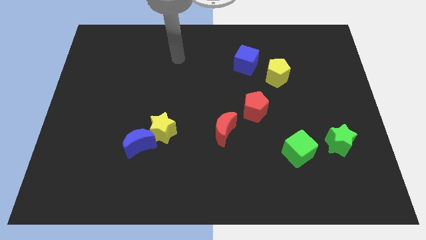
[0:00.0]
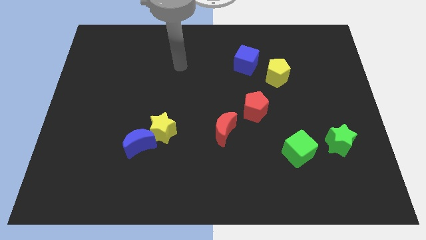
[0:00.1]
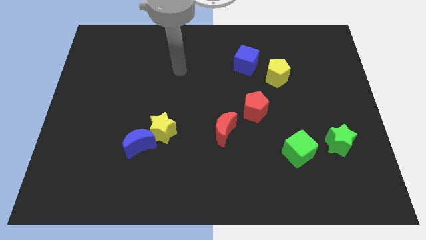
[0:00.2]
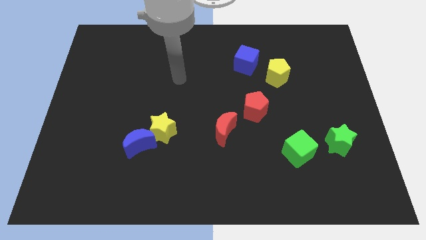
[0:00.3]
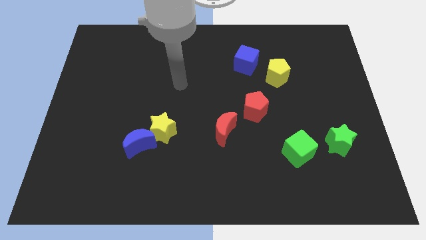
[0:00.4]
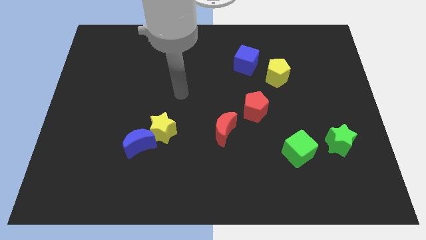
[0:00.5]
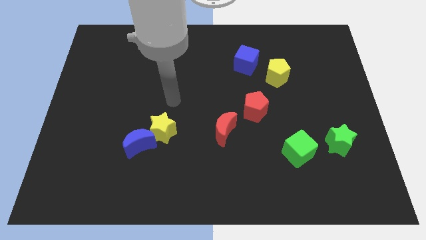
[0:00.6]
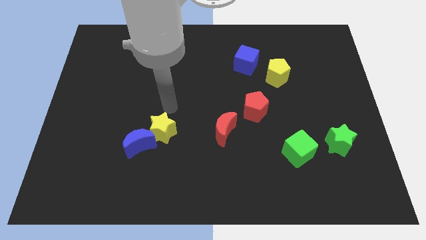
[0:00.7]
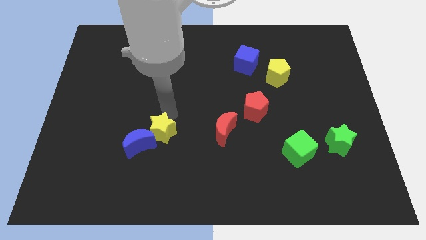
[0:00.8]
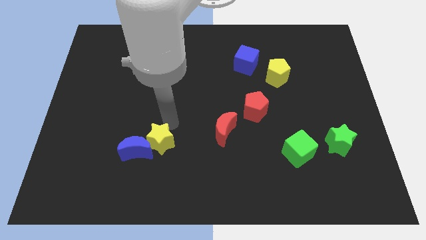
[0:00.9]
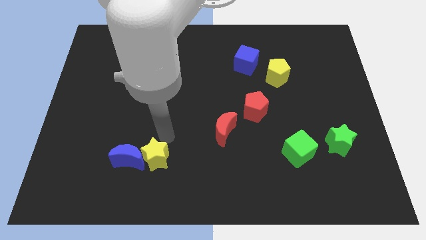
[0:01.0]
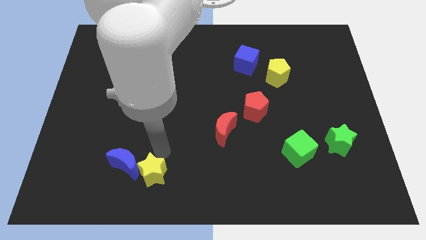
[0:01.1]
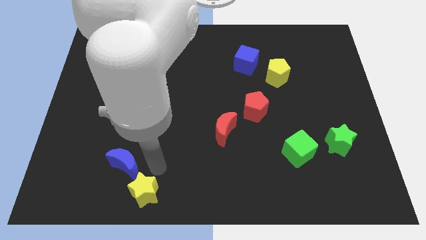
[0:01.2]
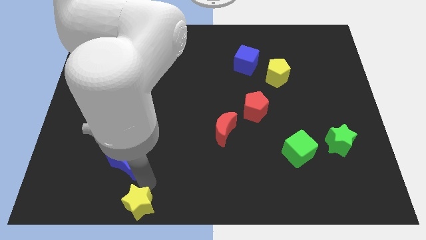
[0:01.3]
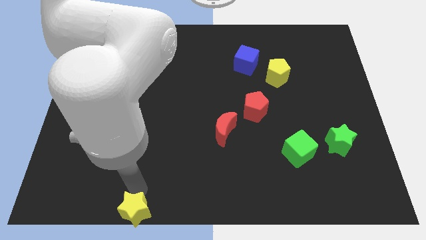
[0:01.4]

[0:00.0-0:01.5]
pull the blue moon apart from the yellow star

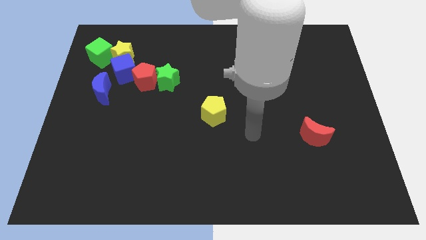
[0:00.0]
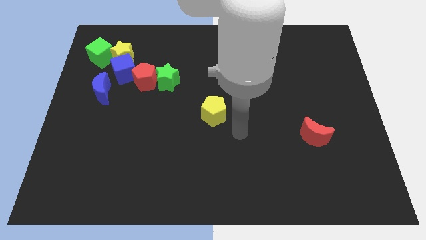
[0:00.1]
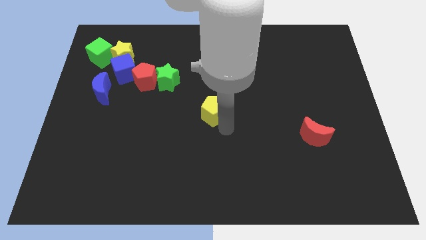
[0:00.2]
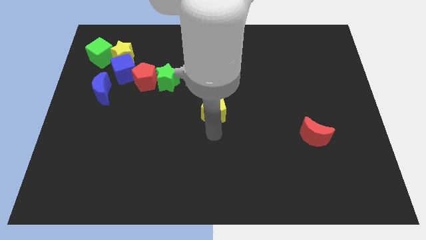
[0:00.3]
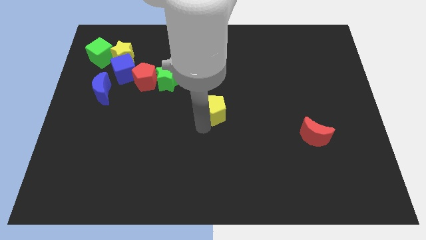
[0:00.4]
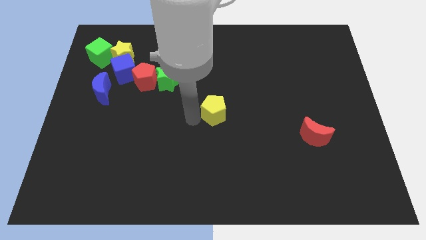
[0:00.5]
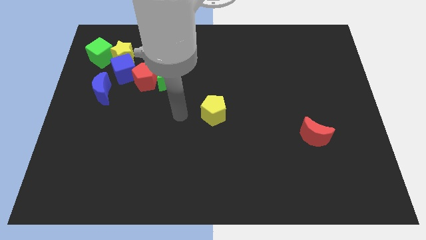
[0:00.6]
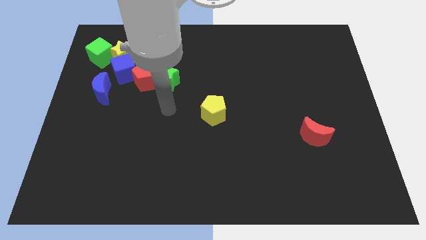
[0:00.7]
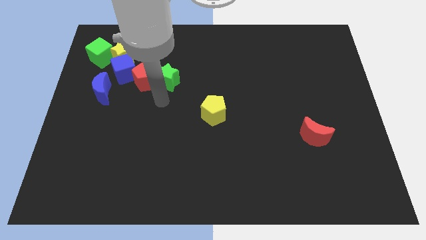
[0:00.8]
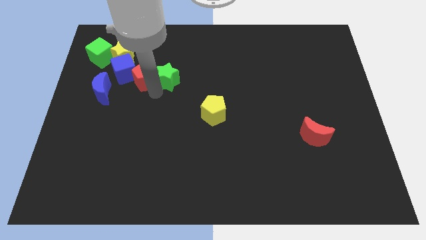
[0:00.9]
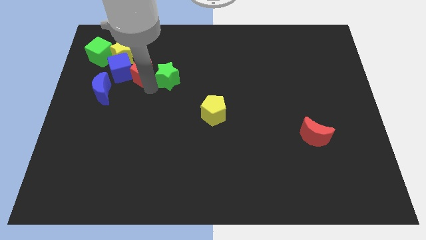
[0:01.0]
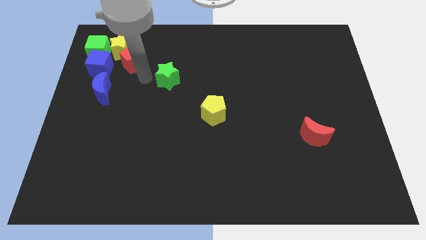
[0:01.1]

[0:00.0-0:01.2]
pull the green star apart from the red pentagon

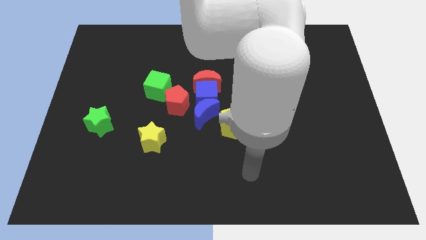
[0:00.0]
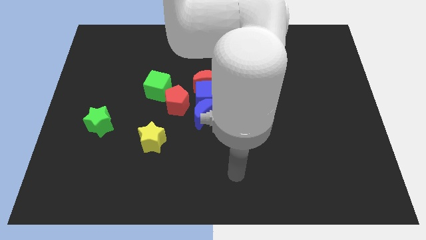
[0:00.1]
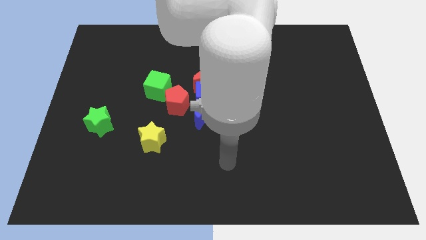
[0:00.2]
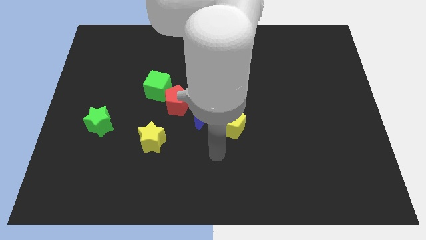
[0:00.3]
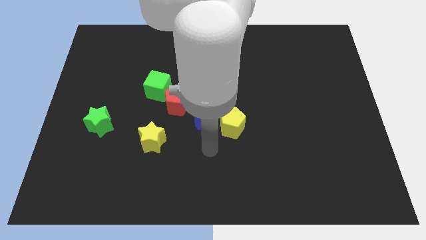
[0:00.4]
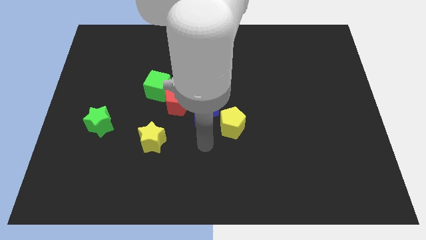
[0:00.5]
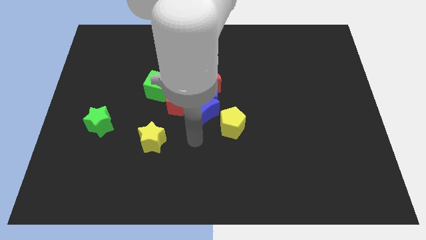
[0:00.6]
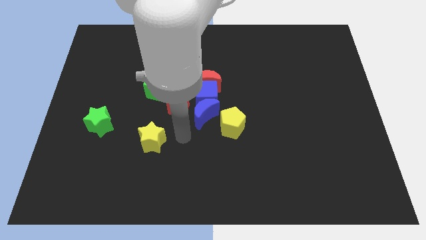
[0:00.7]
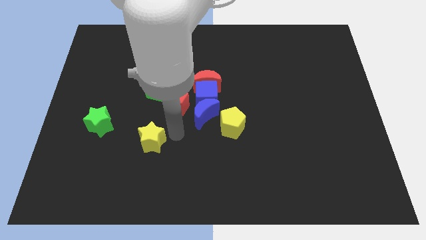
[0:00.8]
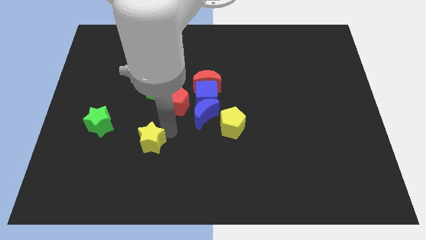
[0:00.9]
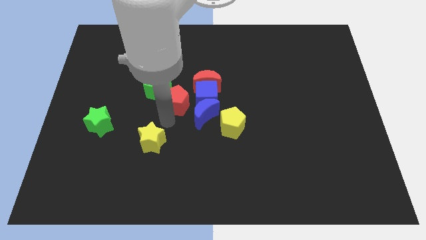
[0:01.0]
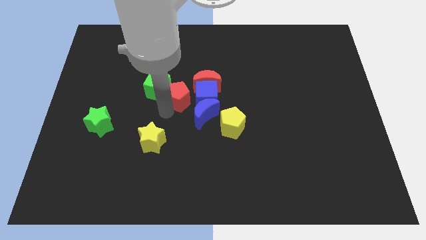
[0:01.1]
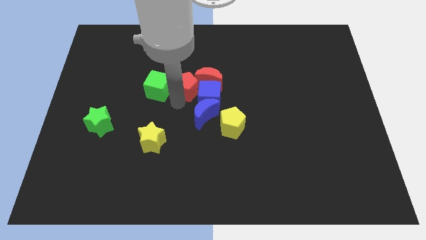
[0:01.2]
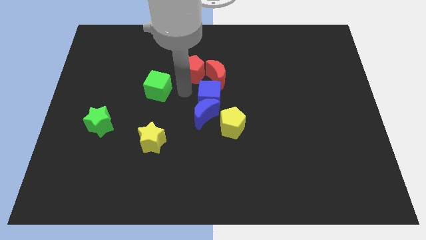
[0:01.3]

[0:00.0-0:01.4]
pull the green cube apart from the red pentagon

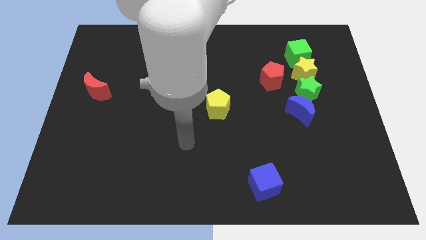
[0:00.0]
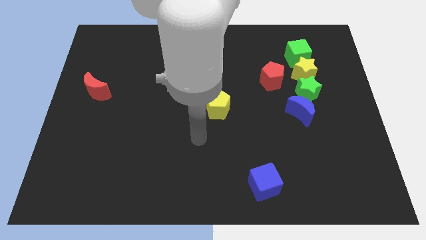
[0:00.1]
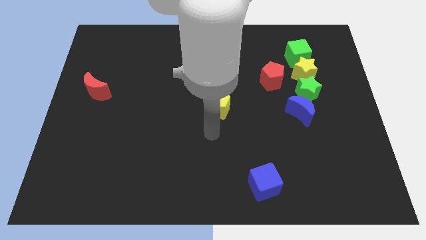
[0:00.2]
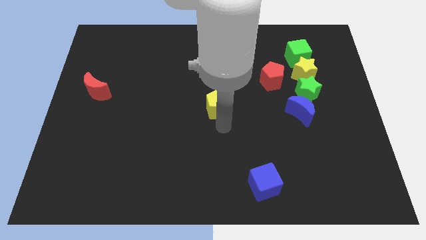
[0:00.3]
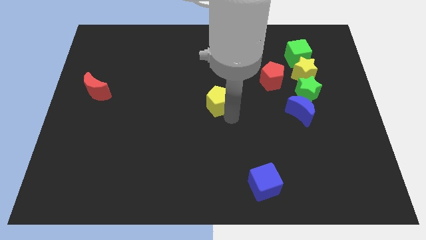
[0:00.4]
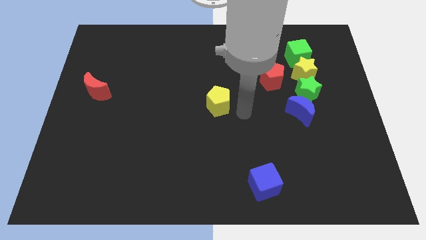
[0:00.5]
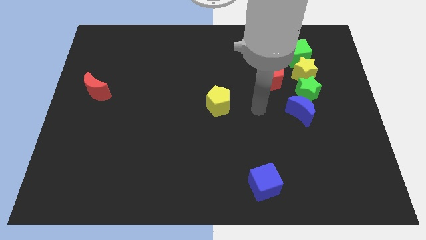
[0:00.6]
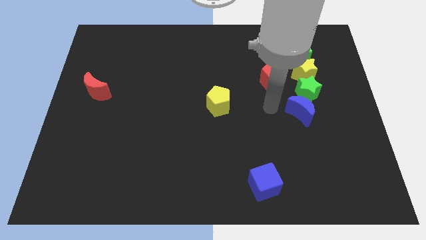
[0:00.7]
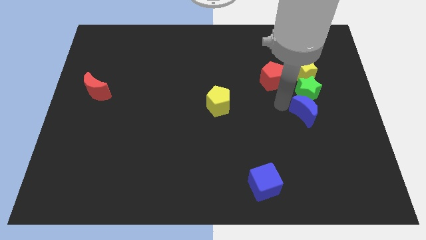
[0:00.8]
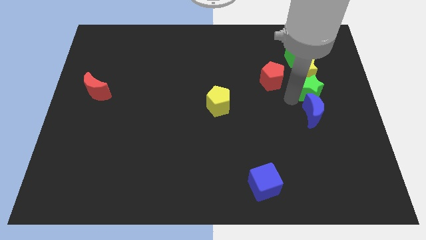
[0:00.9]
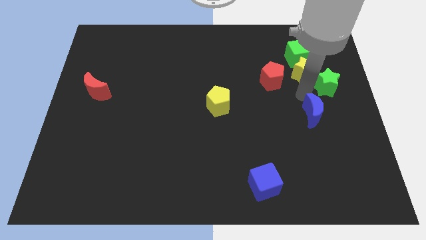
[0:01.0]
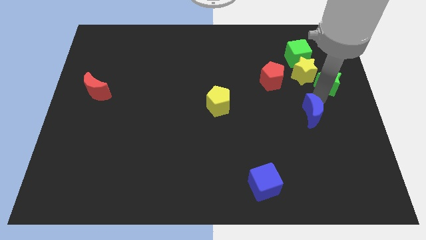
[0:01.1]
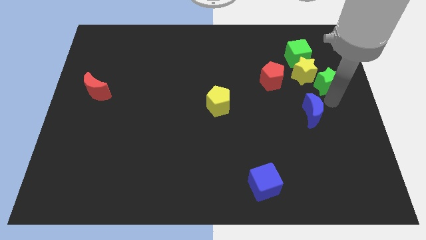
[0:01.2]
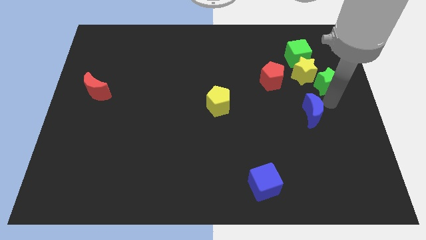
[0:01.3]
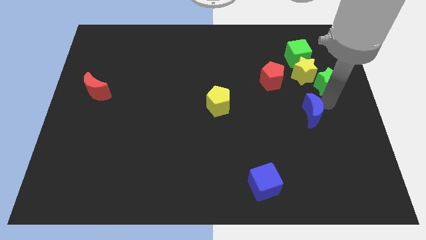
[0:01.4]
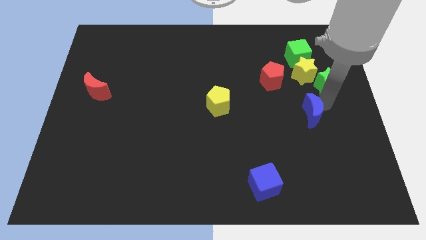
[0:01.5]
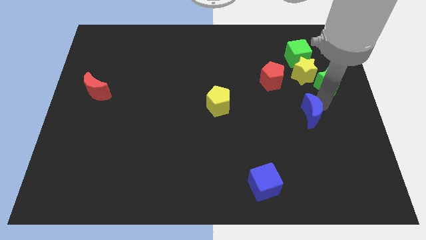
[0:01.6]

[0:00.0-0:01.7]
separate the blue moon from the green star

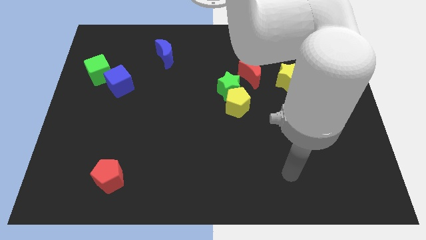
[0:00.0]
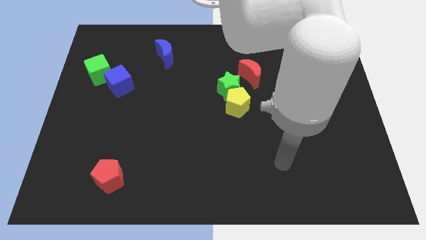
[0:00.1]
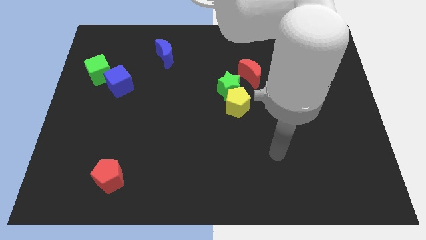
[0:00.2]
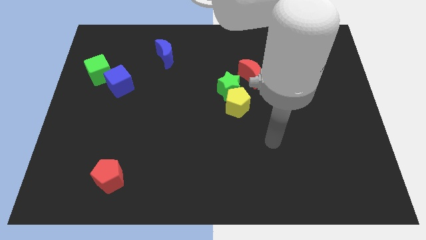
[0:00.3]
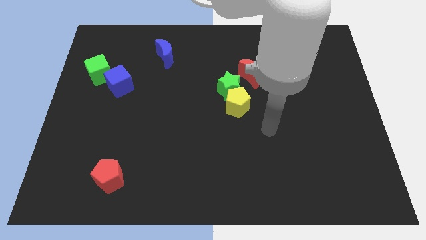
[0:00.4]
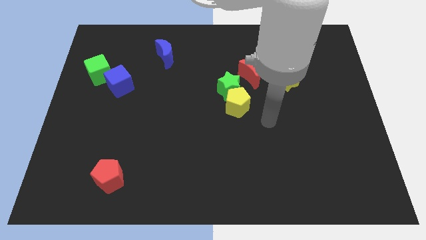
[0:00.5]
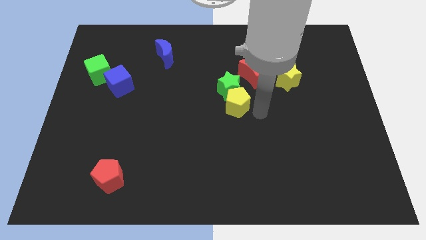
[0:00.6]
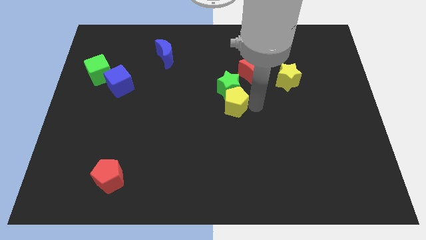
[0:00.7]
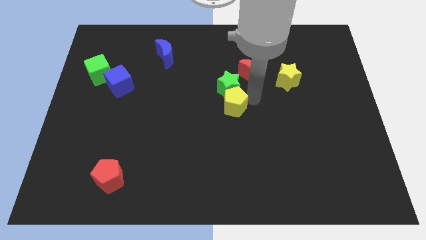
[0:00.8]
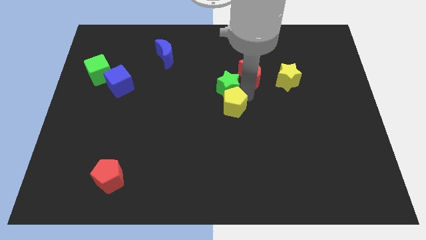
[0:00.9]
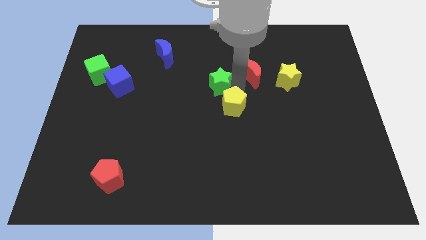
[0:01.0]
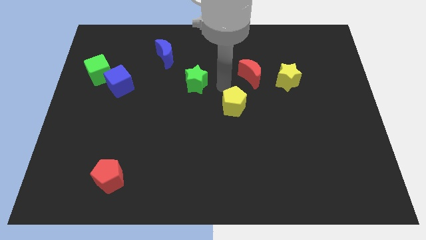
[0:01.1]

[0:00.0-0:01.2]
separate the yellow pentagon from the green star

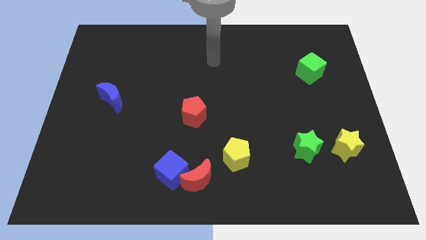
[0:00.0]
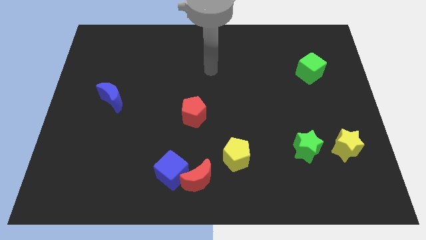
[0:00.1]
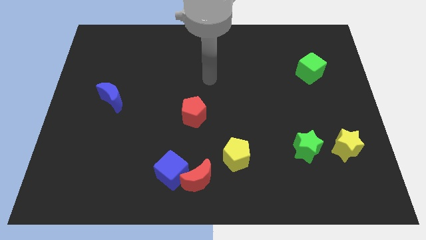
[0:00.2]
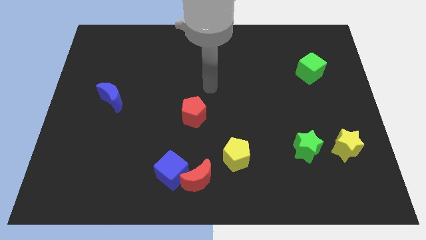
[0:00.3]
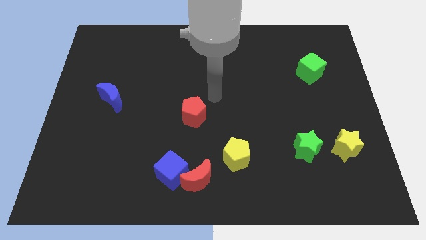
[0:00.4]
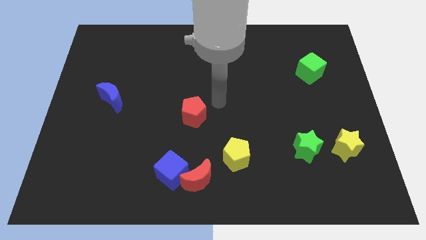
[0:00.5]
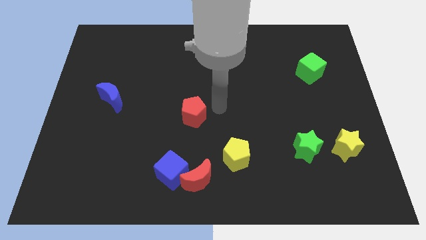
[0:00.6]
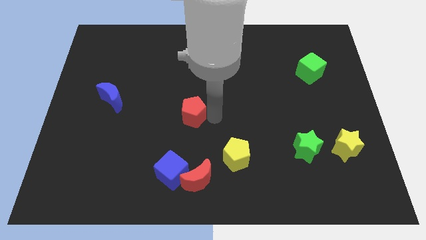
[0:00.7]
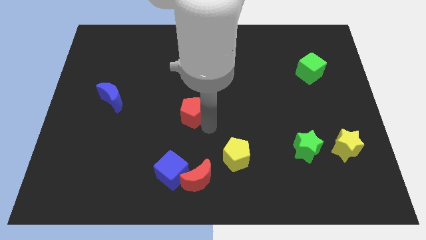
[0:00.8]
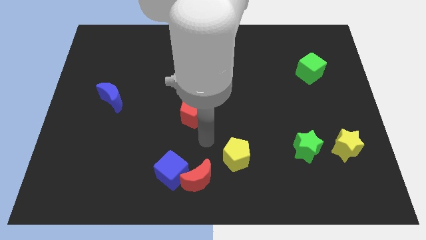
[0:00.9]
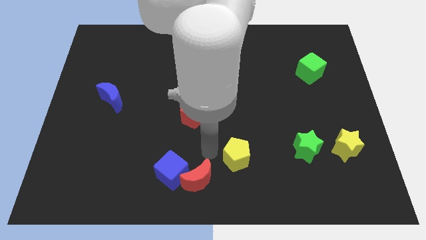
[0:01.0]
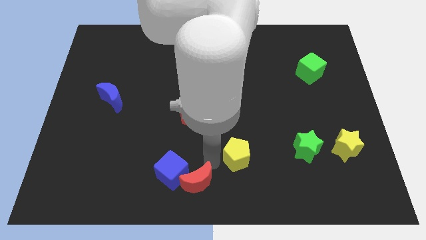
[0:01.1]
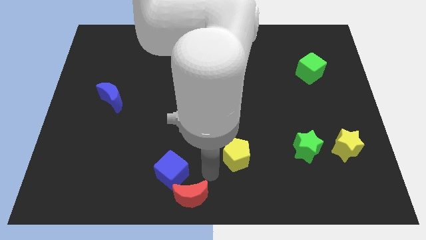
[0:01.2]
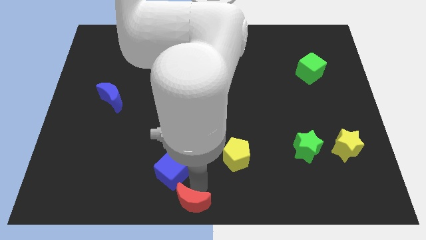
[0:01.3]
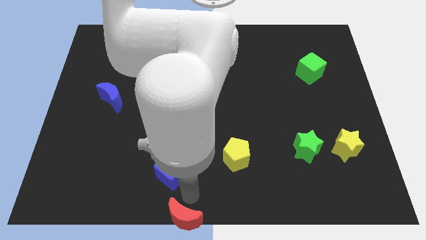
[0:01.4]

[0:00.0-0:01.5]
move the blue cube away from the red moon

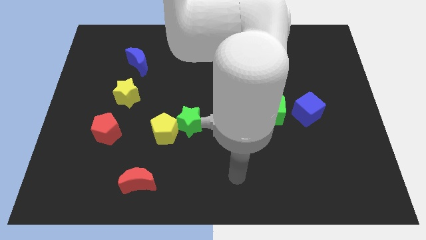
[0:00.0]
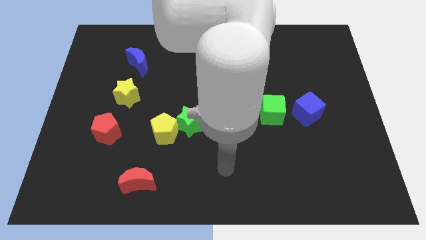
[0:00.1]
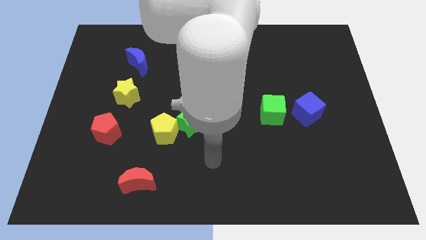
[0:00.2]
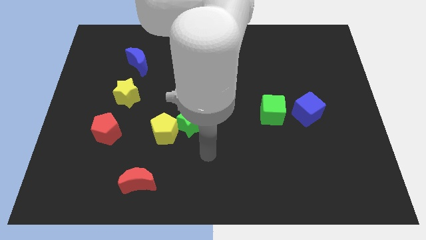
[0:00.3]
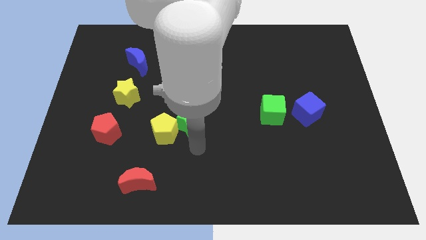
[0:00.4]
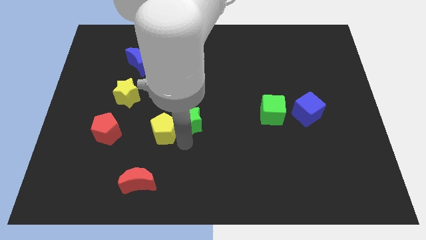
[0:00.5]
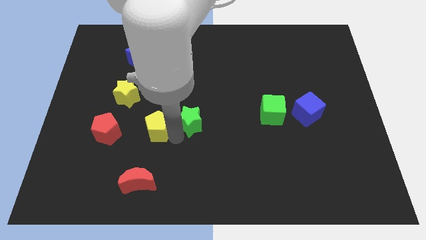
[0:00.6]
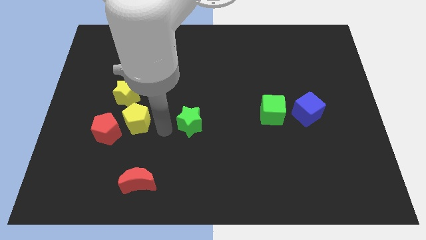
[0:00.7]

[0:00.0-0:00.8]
pull the green star apart from the yellow pentagon
